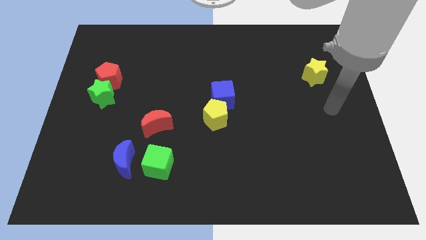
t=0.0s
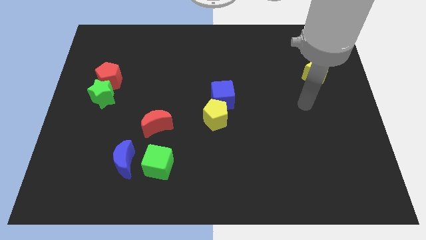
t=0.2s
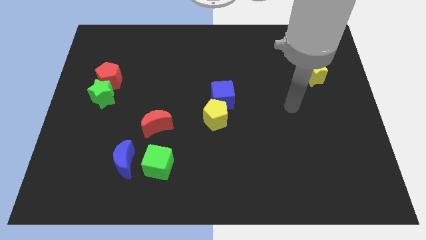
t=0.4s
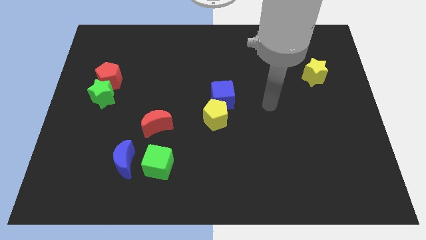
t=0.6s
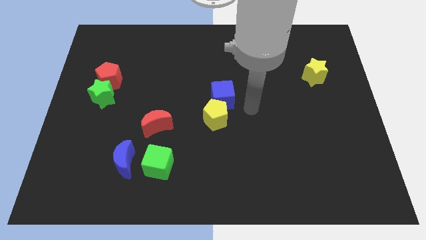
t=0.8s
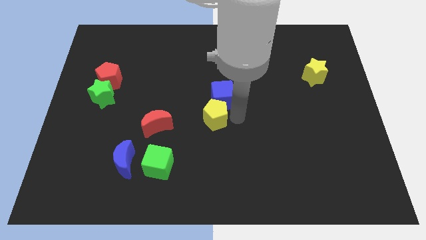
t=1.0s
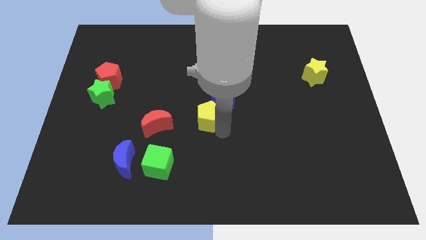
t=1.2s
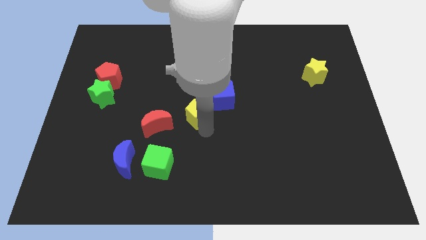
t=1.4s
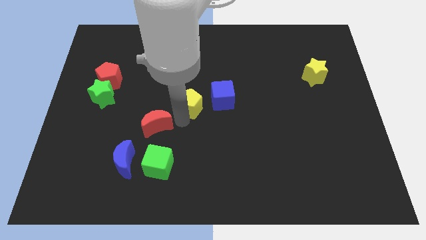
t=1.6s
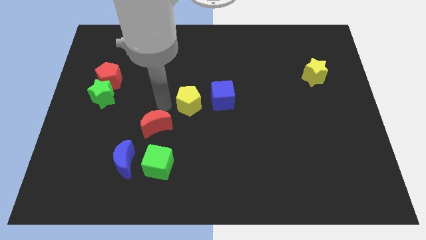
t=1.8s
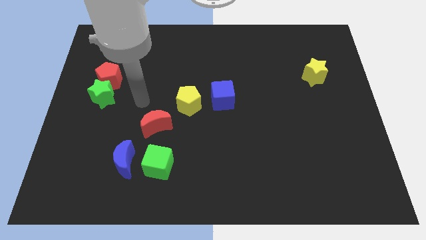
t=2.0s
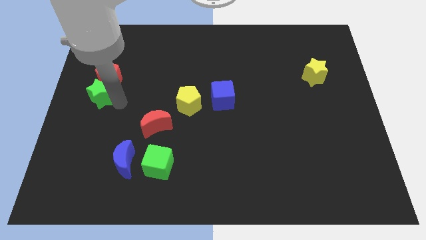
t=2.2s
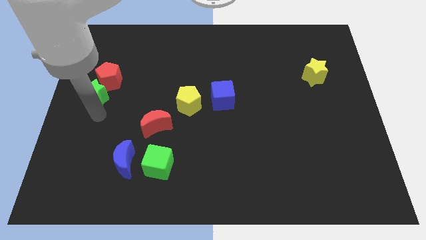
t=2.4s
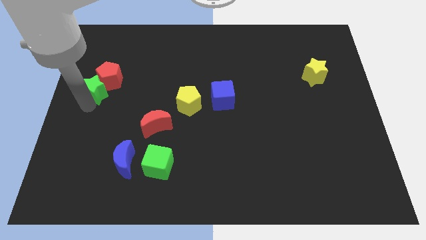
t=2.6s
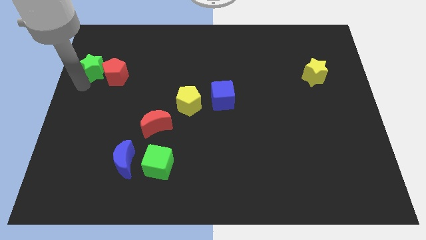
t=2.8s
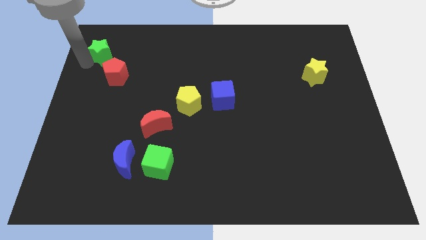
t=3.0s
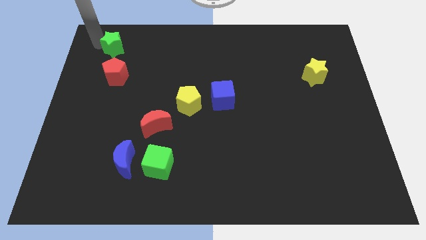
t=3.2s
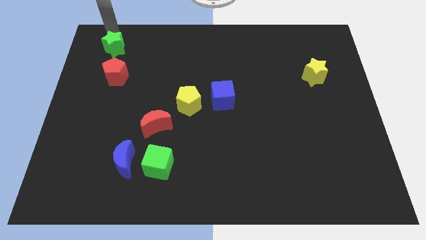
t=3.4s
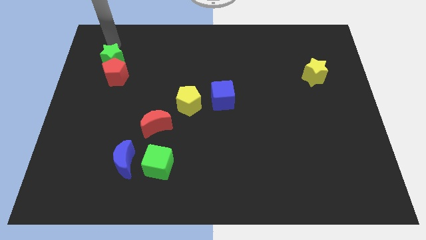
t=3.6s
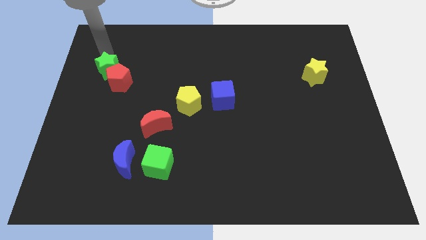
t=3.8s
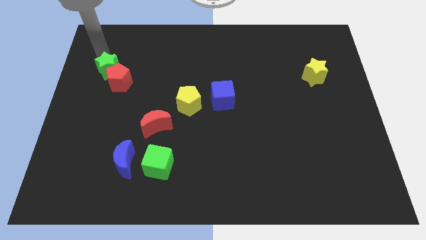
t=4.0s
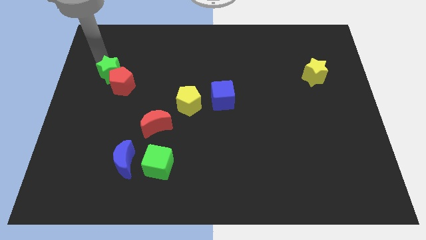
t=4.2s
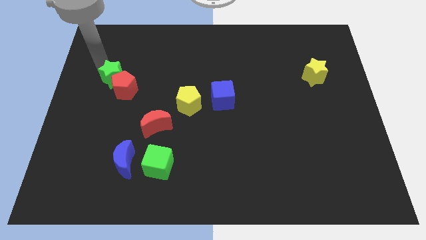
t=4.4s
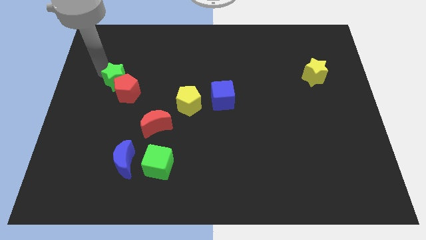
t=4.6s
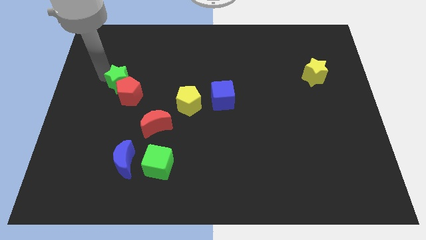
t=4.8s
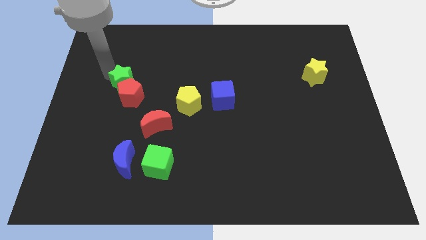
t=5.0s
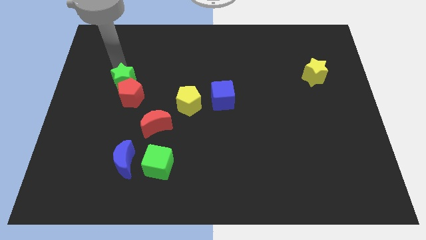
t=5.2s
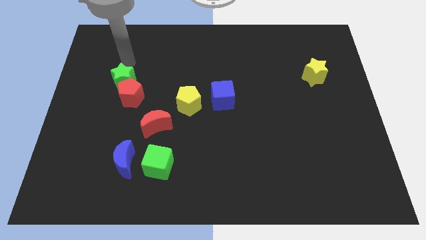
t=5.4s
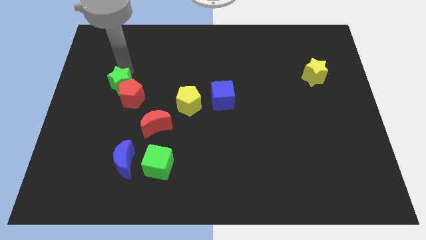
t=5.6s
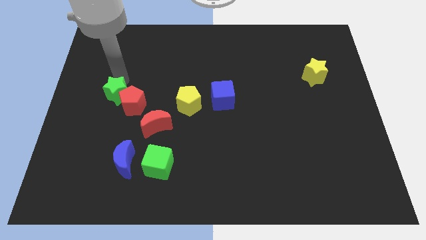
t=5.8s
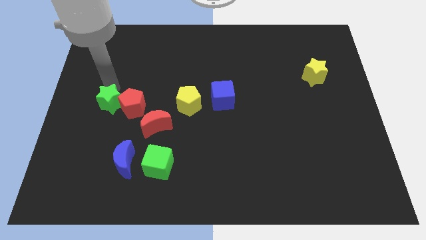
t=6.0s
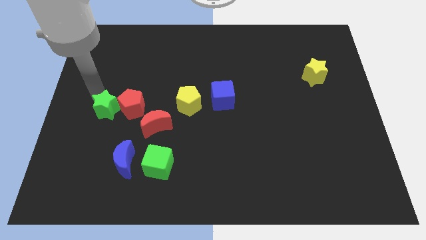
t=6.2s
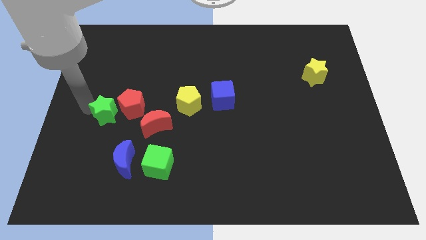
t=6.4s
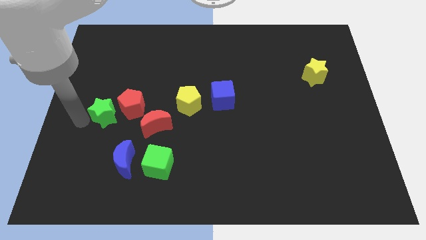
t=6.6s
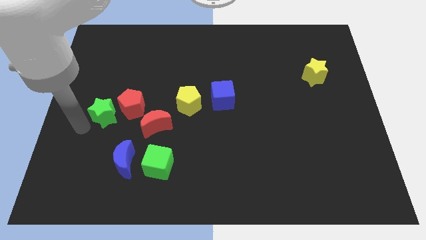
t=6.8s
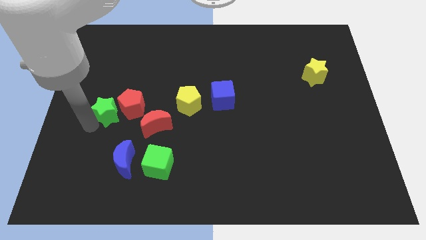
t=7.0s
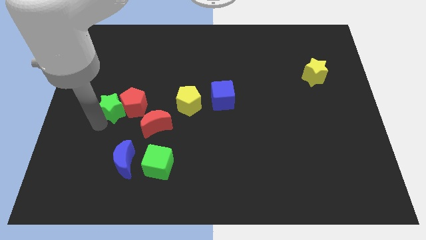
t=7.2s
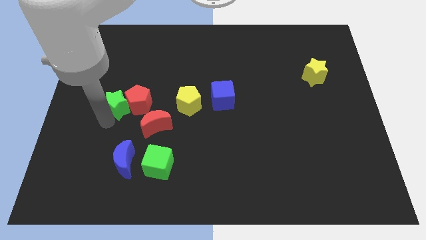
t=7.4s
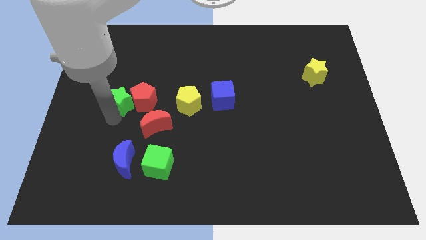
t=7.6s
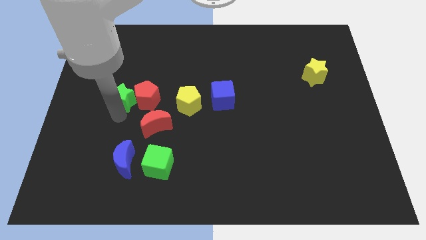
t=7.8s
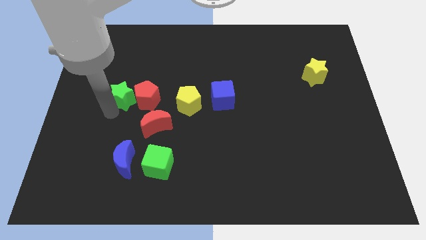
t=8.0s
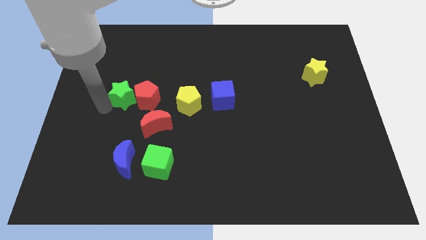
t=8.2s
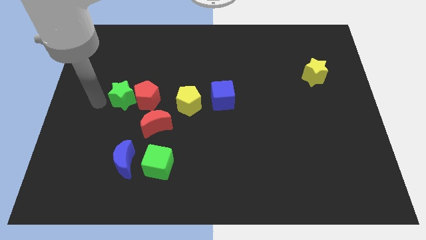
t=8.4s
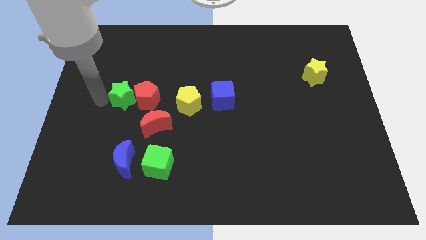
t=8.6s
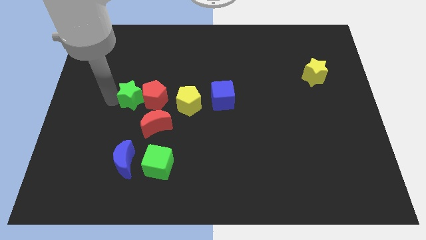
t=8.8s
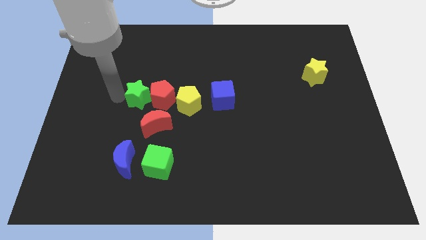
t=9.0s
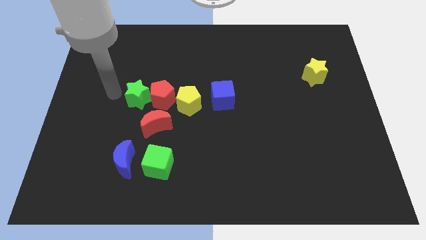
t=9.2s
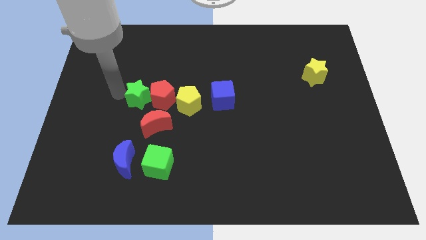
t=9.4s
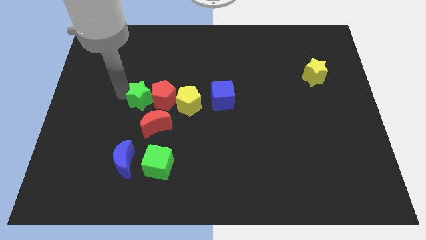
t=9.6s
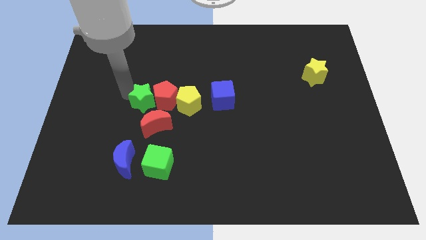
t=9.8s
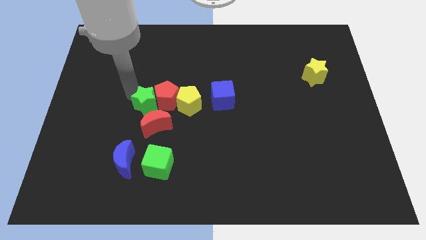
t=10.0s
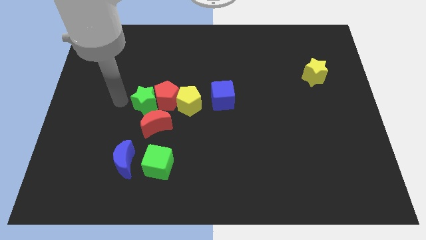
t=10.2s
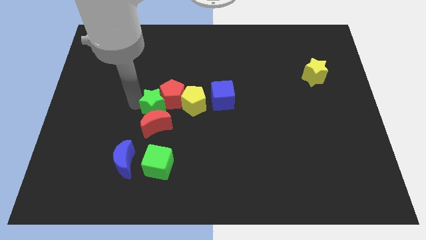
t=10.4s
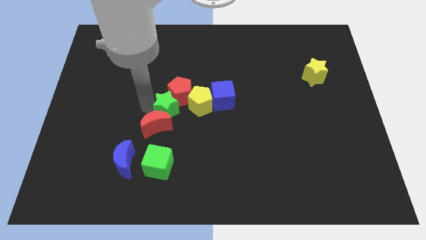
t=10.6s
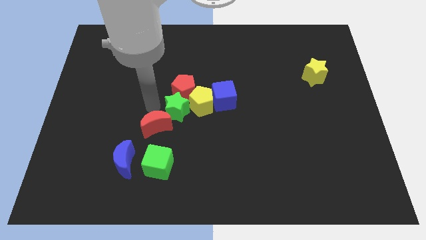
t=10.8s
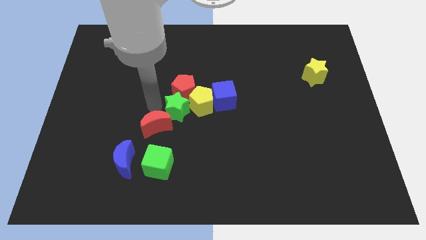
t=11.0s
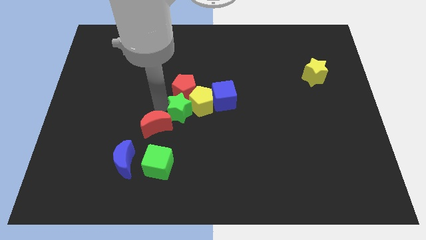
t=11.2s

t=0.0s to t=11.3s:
put the green star diagonally down and to the left of the blue cube

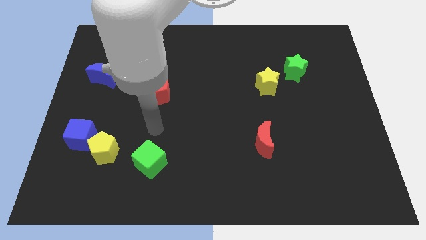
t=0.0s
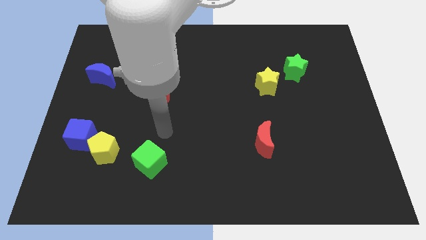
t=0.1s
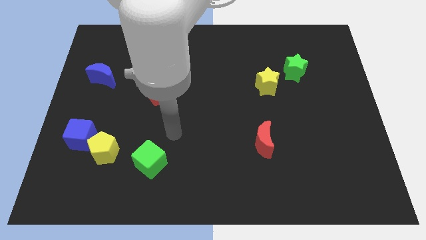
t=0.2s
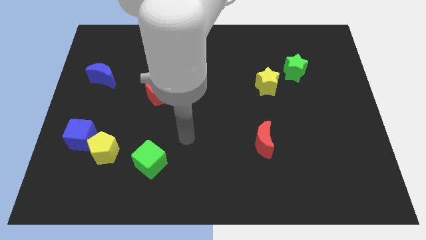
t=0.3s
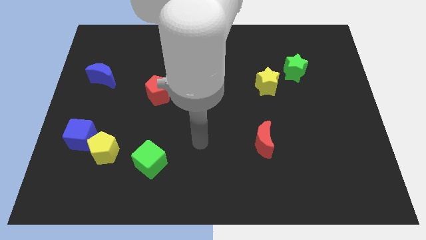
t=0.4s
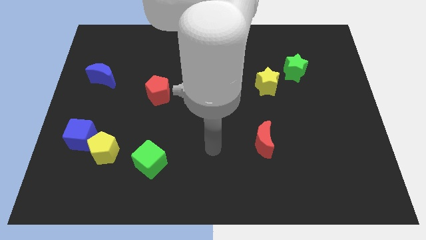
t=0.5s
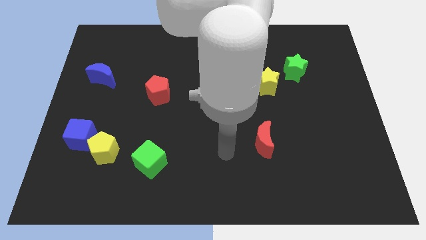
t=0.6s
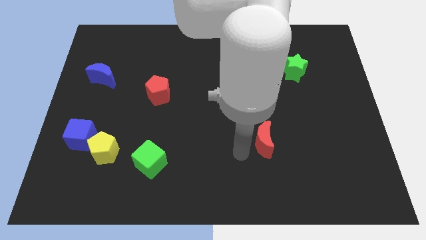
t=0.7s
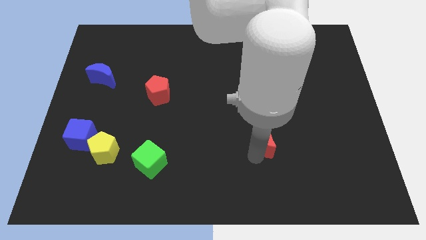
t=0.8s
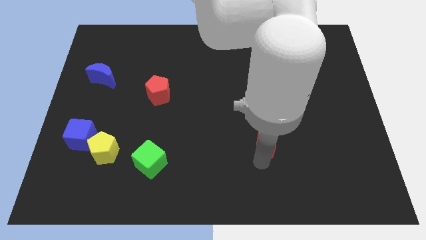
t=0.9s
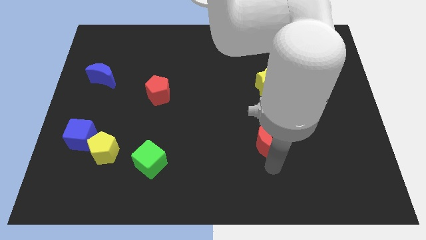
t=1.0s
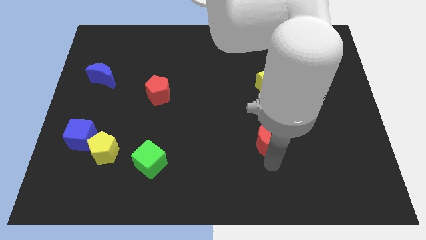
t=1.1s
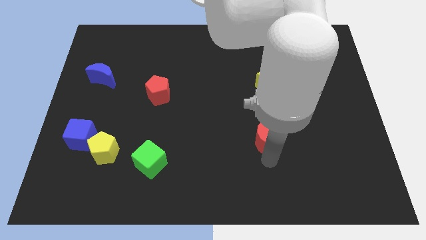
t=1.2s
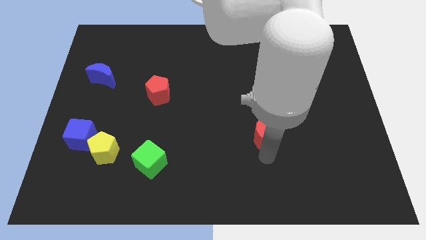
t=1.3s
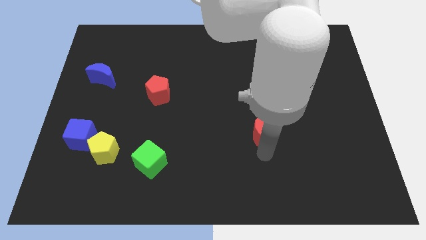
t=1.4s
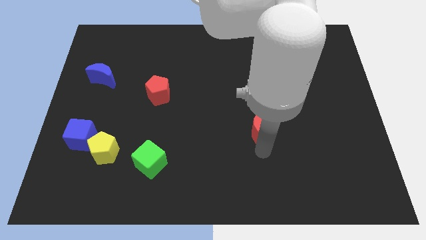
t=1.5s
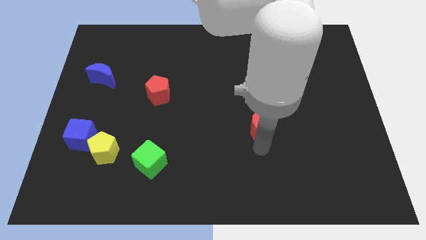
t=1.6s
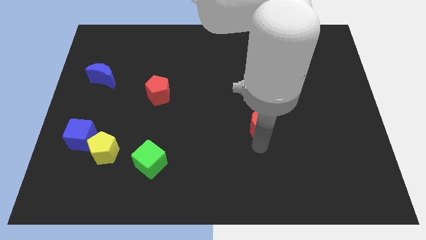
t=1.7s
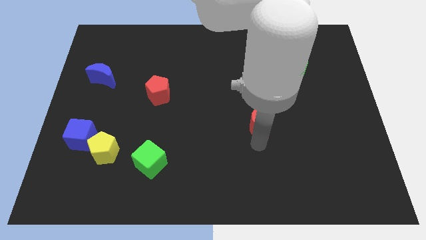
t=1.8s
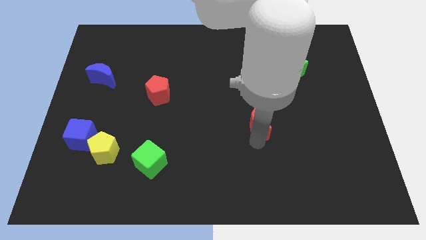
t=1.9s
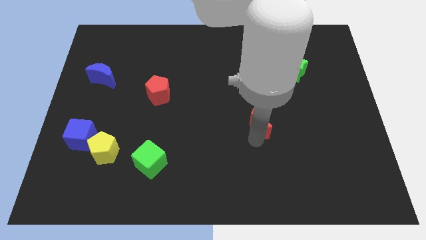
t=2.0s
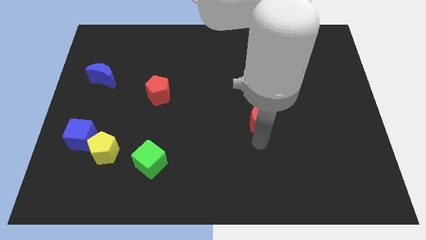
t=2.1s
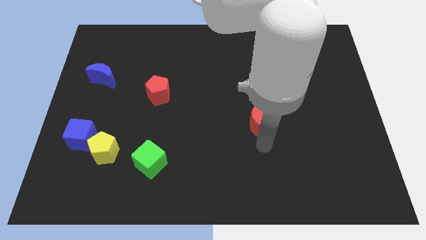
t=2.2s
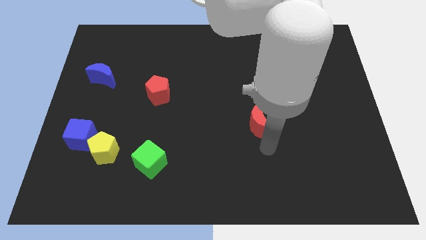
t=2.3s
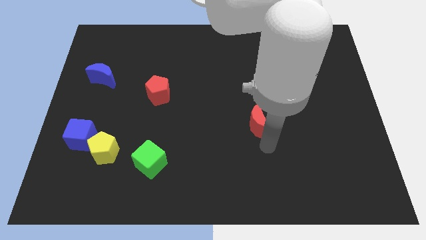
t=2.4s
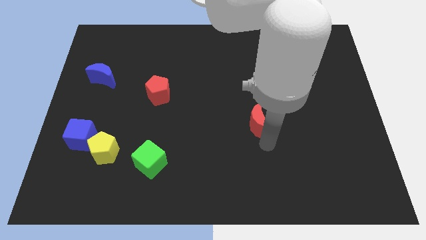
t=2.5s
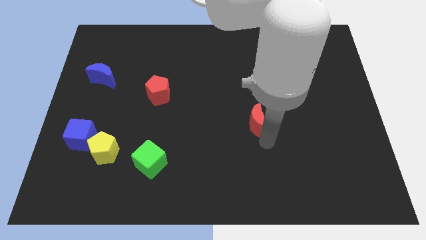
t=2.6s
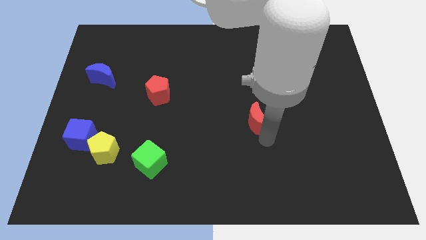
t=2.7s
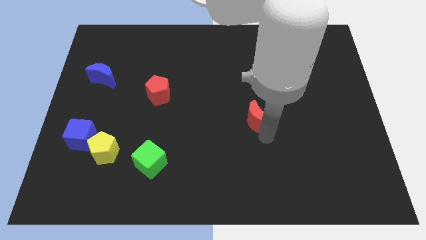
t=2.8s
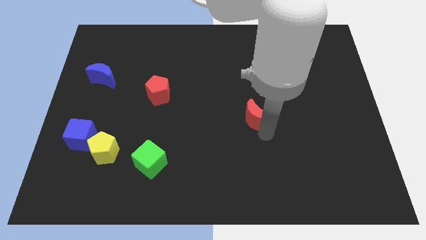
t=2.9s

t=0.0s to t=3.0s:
put the red moon to the bottom left side of the yellow star
